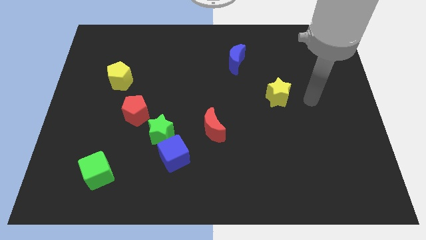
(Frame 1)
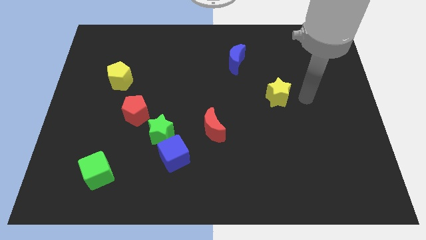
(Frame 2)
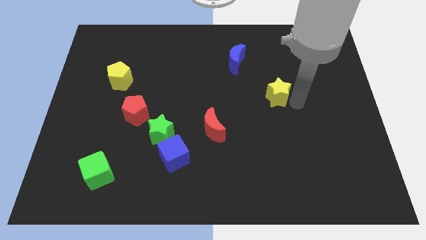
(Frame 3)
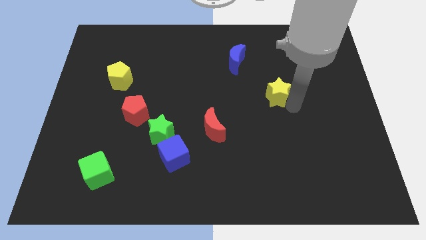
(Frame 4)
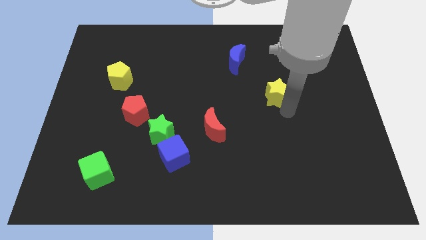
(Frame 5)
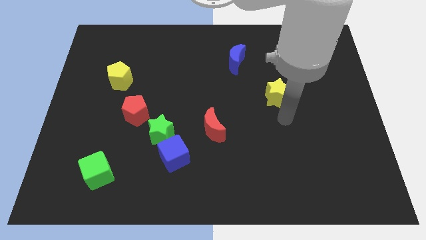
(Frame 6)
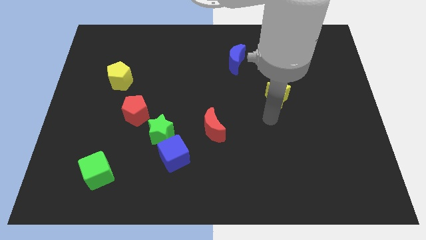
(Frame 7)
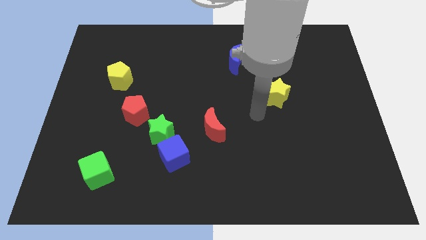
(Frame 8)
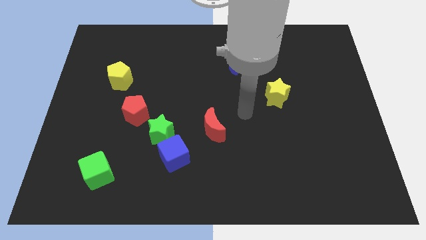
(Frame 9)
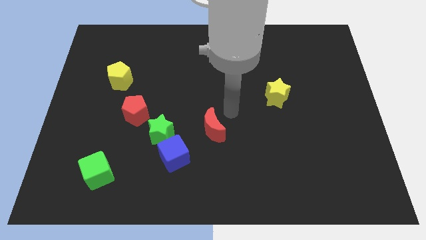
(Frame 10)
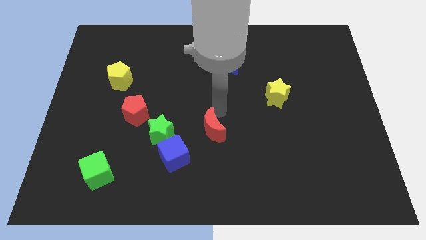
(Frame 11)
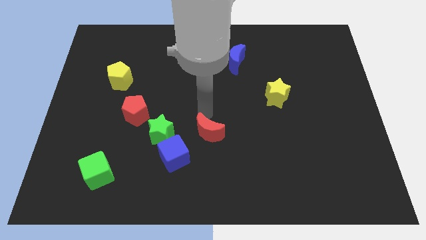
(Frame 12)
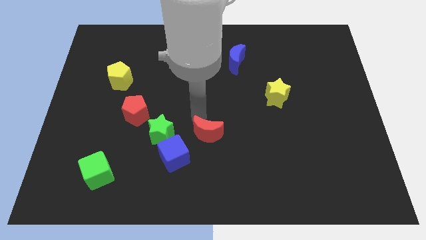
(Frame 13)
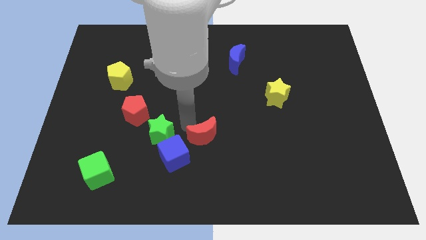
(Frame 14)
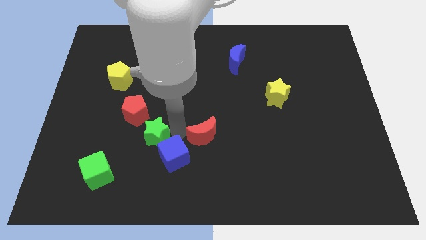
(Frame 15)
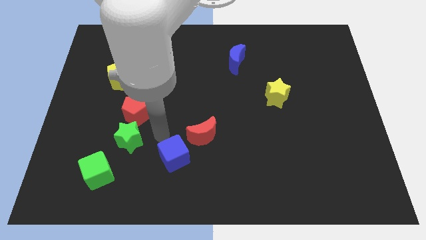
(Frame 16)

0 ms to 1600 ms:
pull the blue cube apart from the green star

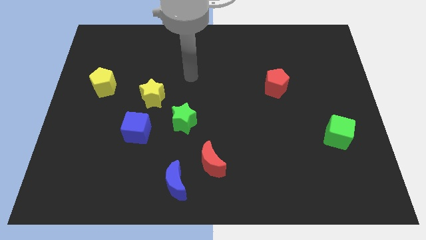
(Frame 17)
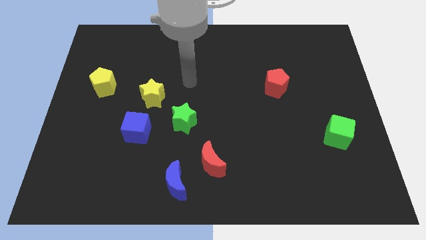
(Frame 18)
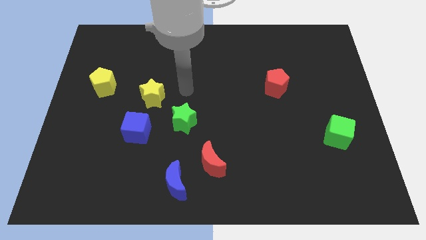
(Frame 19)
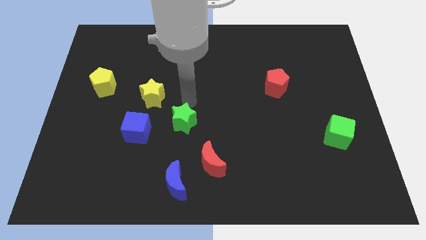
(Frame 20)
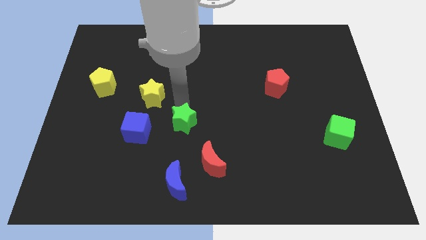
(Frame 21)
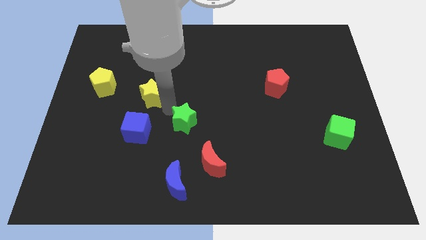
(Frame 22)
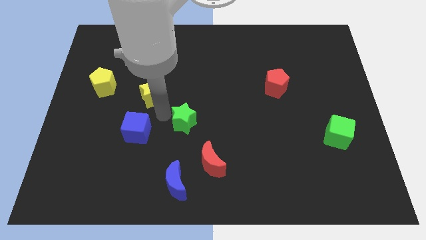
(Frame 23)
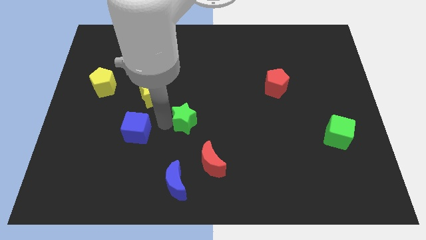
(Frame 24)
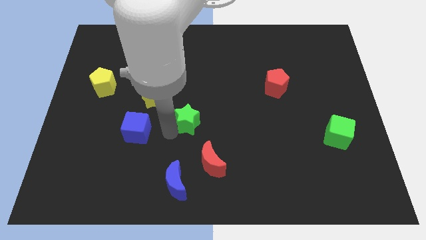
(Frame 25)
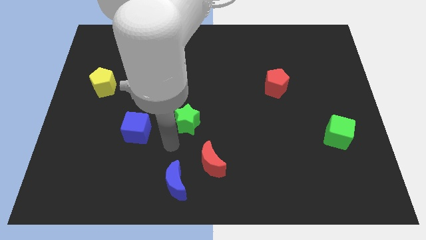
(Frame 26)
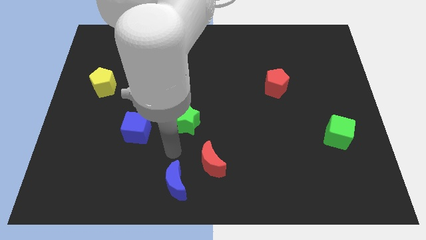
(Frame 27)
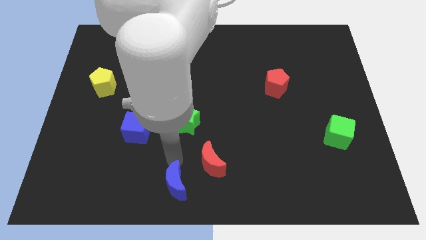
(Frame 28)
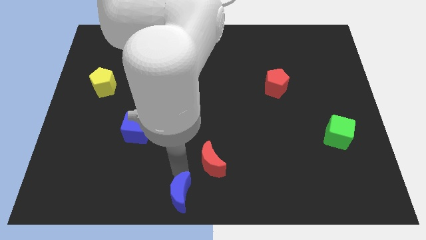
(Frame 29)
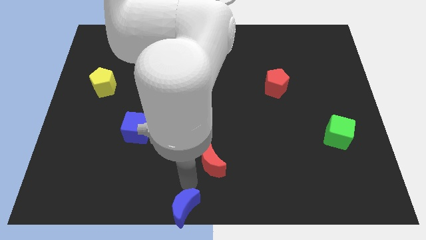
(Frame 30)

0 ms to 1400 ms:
separate the red moon from the blue moon

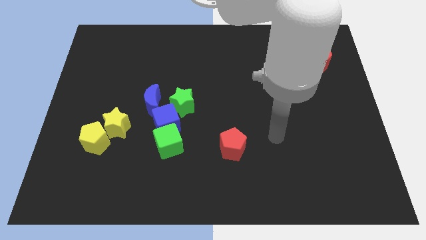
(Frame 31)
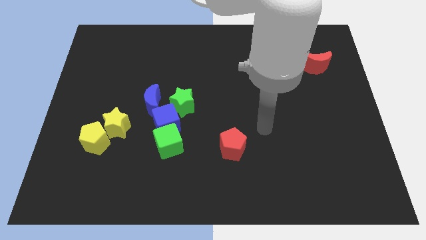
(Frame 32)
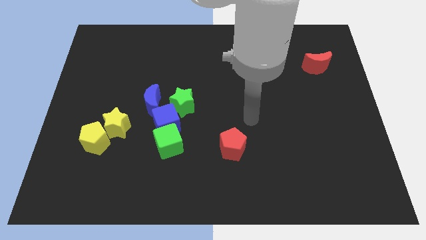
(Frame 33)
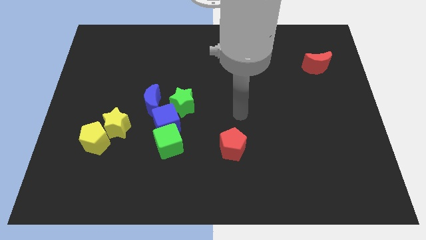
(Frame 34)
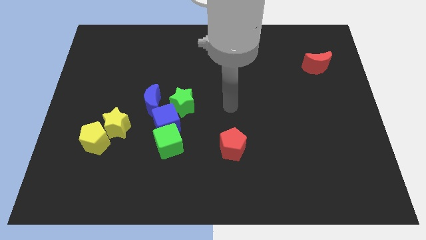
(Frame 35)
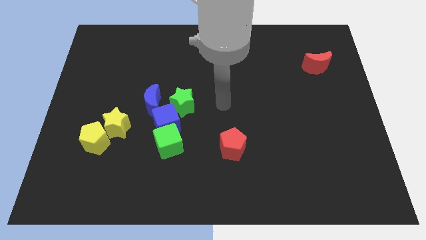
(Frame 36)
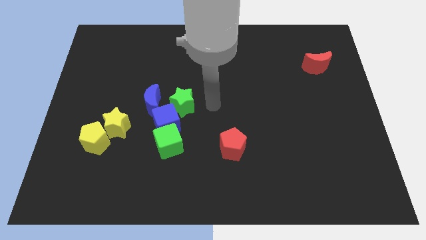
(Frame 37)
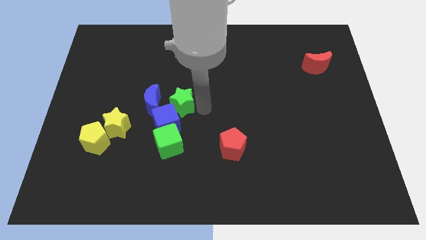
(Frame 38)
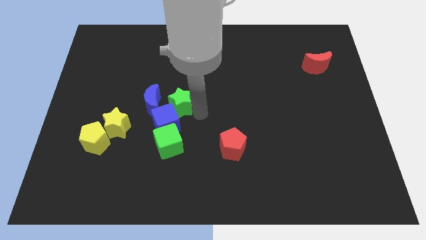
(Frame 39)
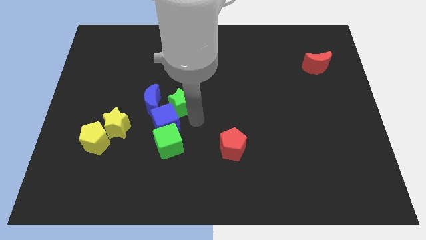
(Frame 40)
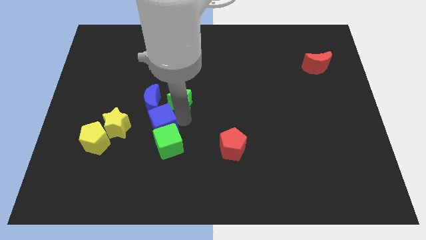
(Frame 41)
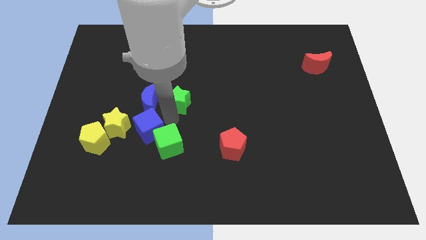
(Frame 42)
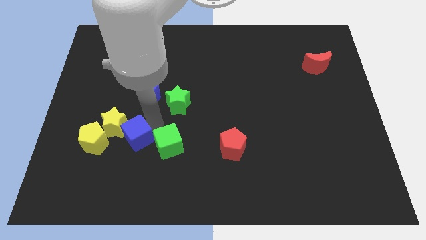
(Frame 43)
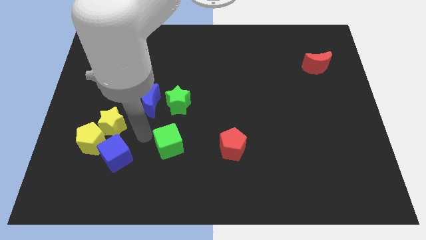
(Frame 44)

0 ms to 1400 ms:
pull the green cube apart from the blue cube

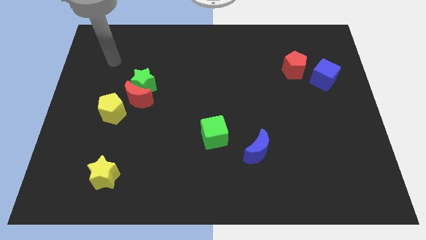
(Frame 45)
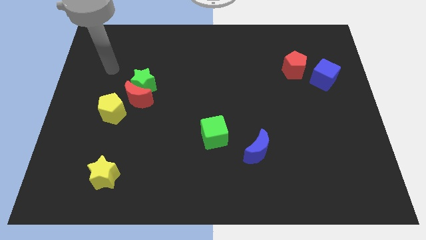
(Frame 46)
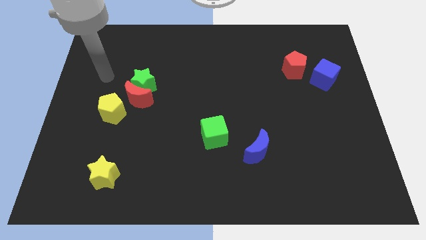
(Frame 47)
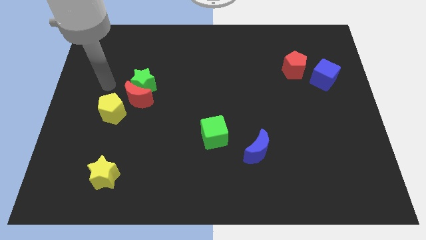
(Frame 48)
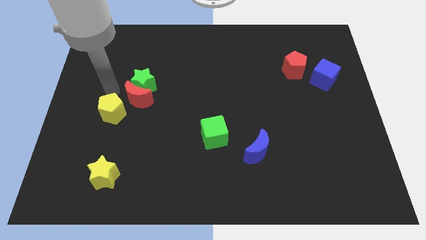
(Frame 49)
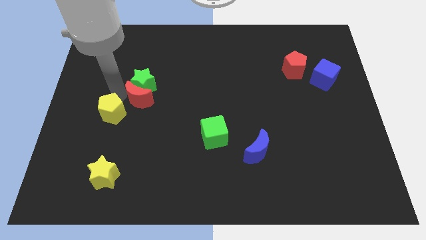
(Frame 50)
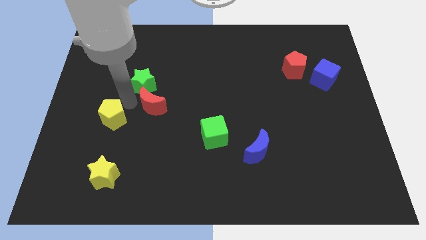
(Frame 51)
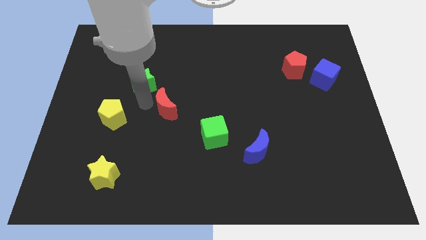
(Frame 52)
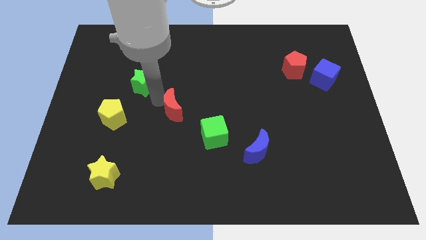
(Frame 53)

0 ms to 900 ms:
move the green star away from the red moon

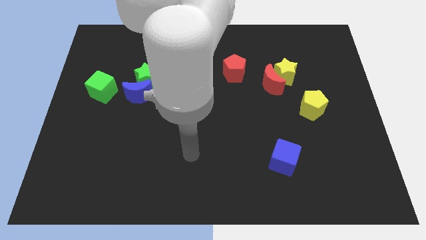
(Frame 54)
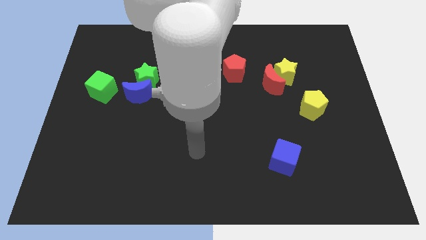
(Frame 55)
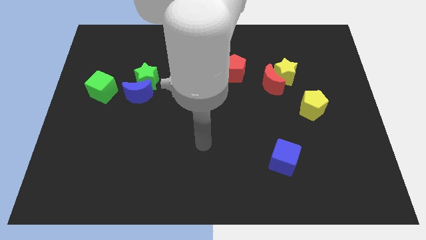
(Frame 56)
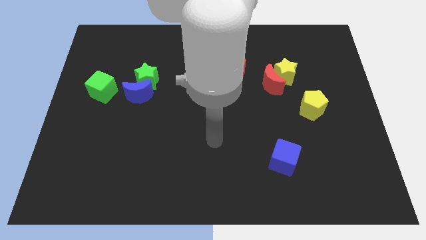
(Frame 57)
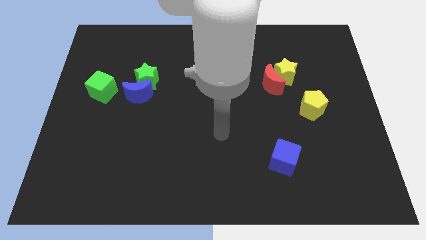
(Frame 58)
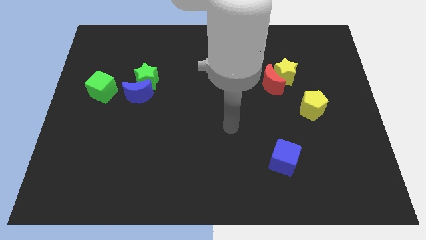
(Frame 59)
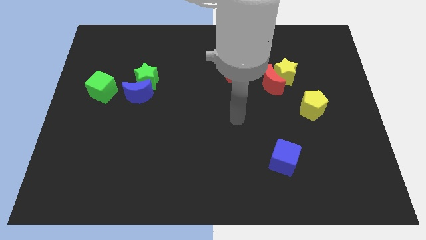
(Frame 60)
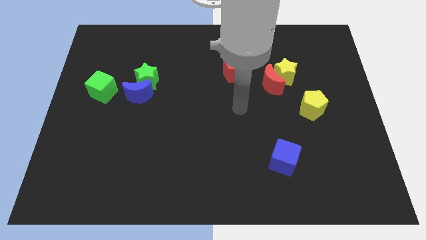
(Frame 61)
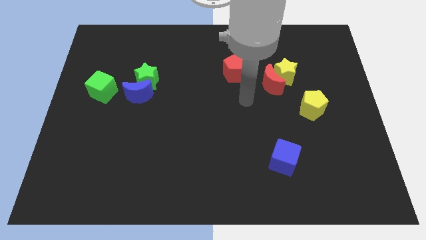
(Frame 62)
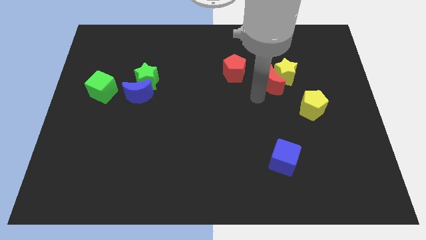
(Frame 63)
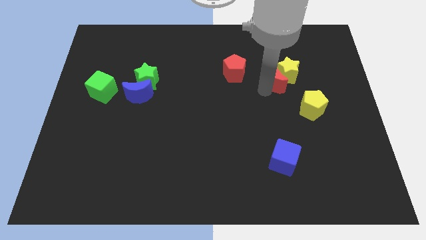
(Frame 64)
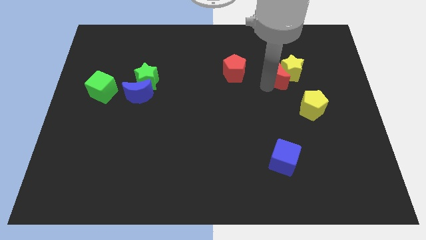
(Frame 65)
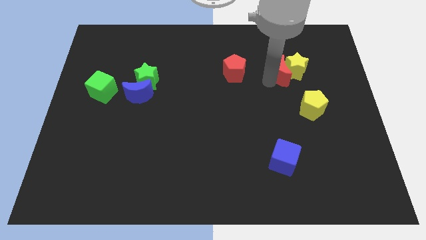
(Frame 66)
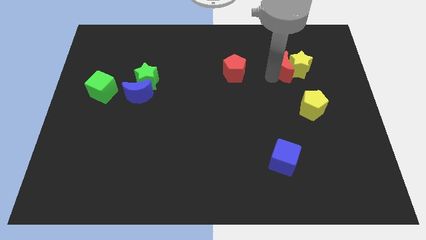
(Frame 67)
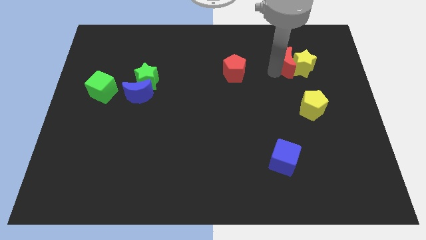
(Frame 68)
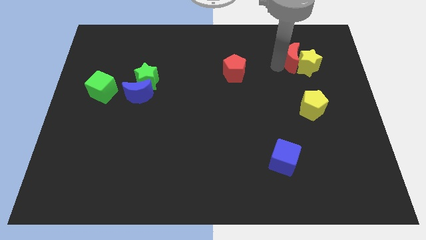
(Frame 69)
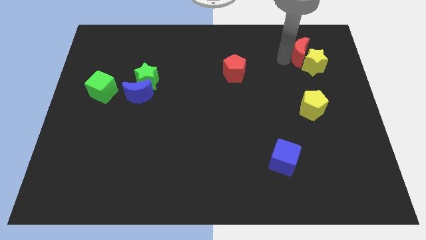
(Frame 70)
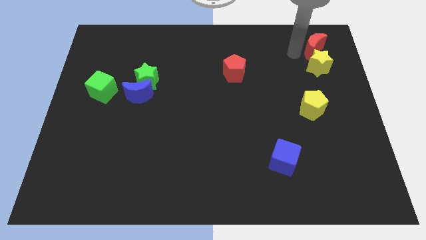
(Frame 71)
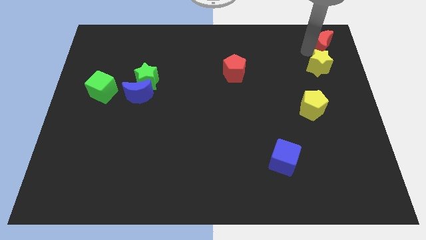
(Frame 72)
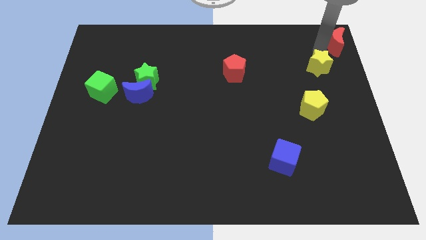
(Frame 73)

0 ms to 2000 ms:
pull the yellow star apart from the red moon

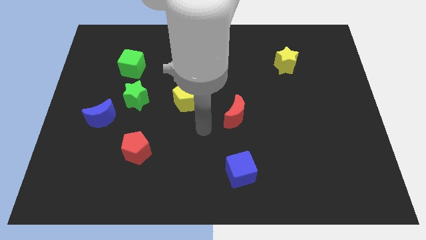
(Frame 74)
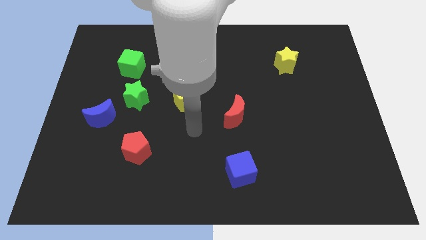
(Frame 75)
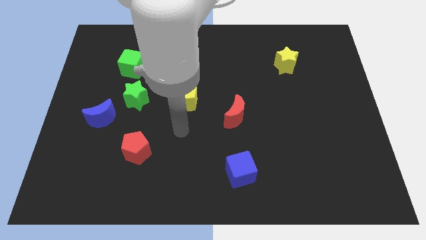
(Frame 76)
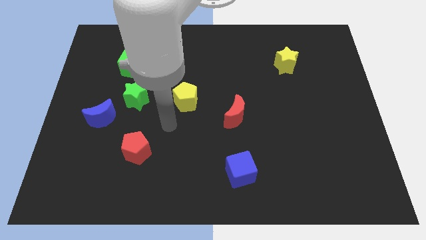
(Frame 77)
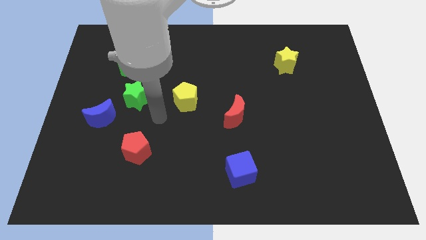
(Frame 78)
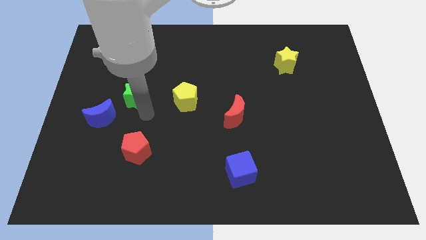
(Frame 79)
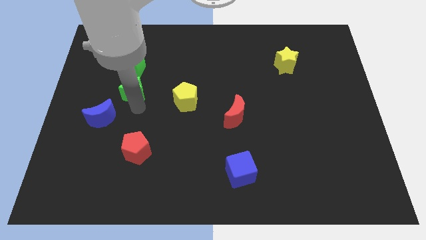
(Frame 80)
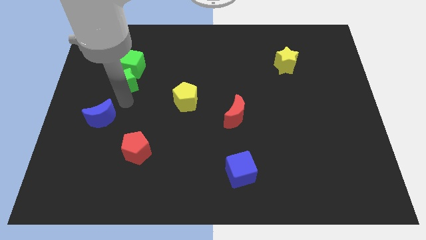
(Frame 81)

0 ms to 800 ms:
separate the blue moon from the green star

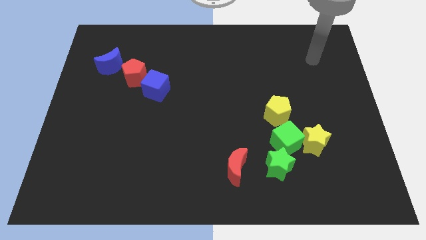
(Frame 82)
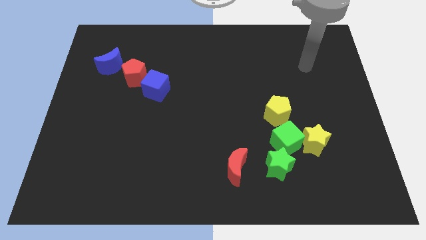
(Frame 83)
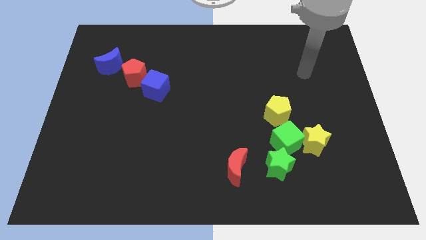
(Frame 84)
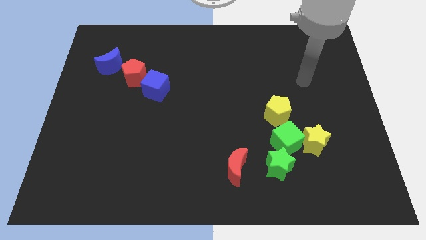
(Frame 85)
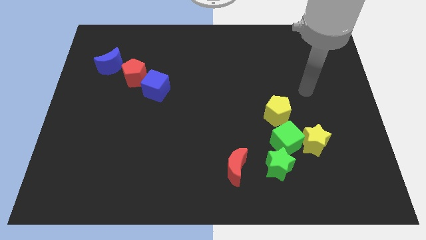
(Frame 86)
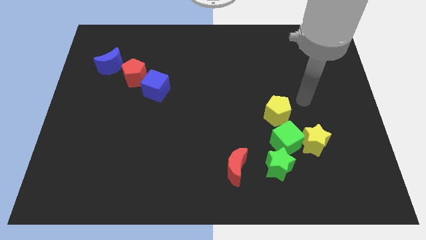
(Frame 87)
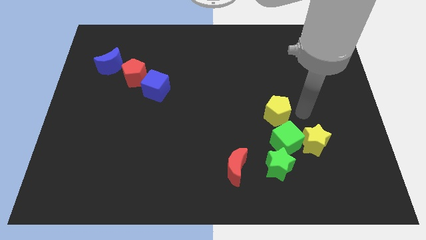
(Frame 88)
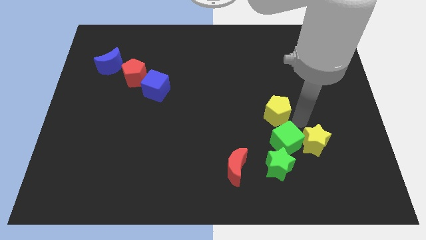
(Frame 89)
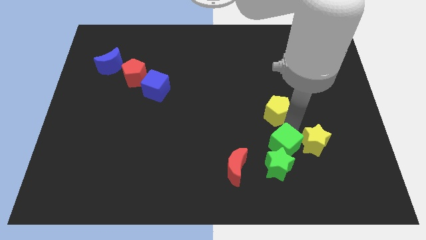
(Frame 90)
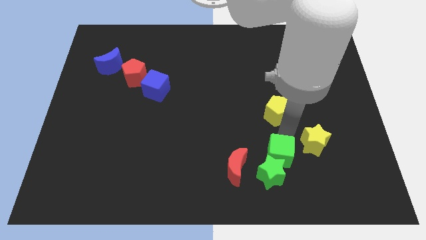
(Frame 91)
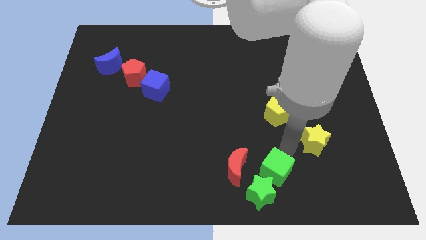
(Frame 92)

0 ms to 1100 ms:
separate the yellow star from the green cube

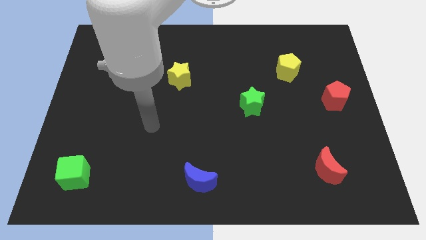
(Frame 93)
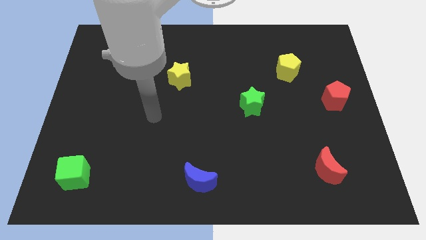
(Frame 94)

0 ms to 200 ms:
separate the blue cube from the yellow star
